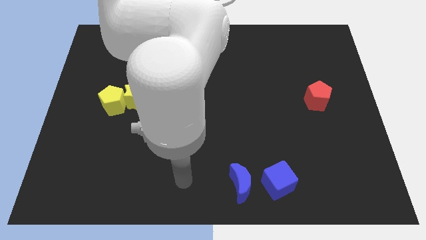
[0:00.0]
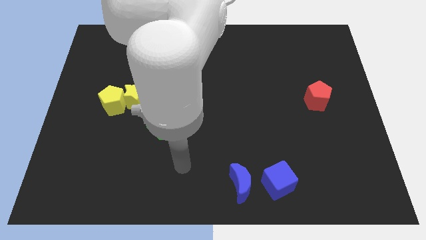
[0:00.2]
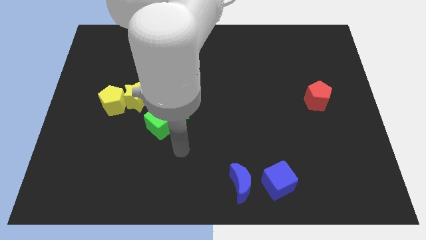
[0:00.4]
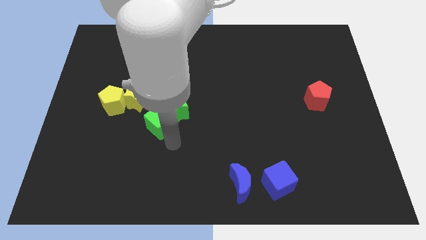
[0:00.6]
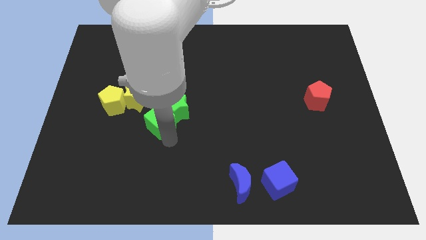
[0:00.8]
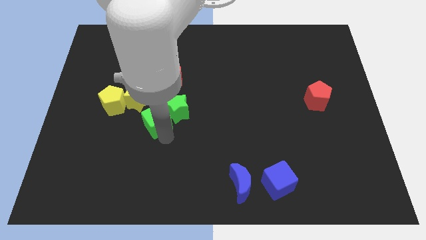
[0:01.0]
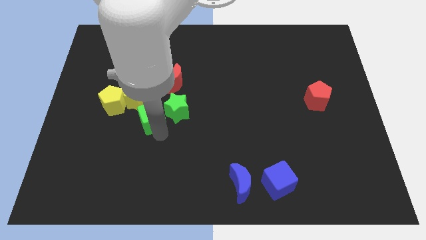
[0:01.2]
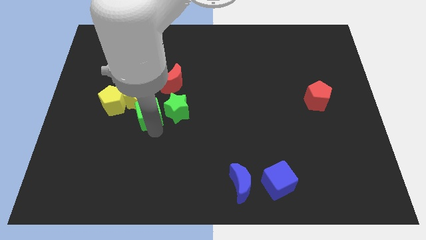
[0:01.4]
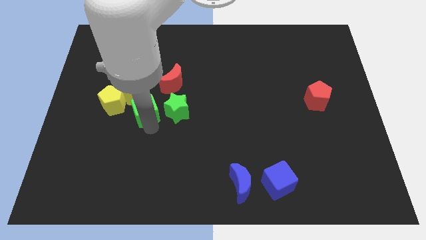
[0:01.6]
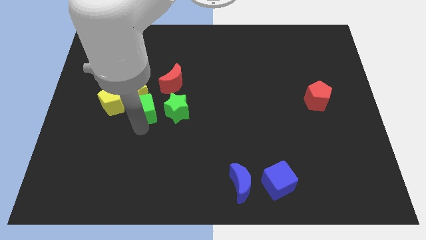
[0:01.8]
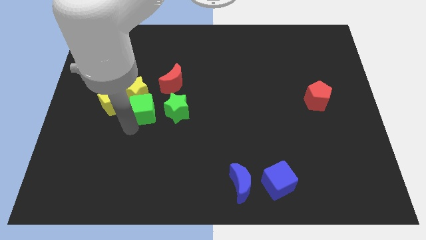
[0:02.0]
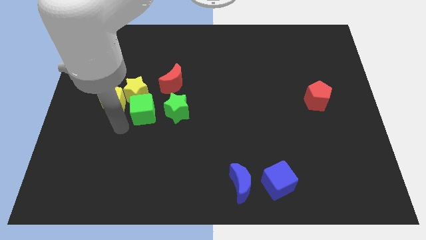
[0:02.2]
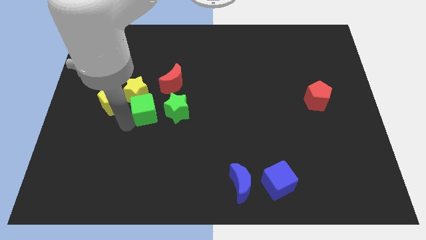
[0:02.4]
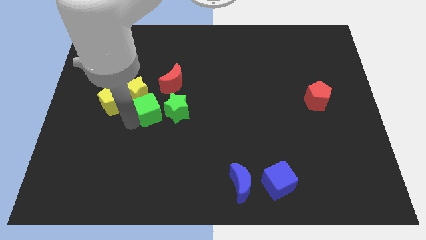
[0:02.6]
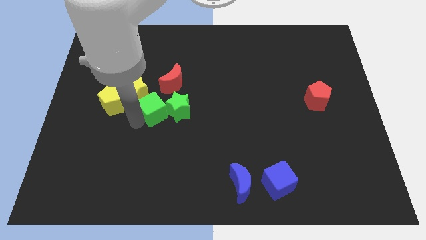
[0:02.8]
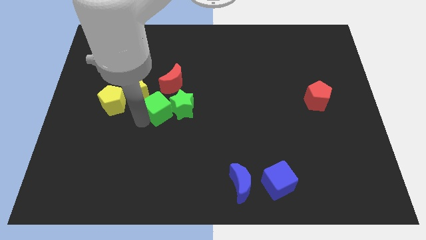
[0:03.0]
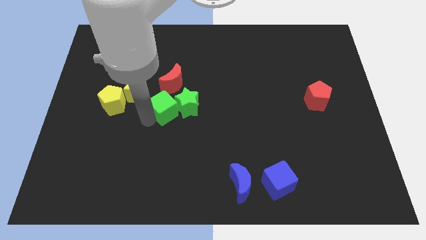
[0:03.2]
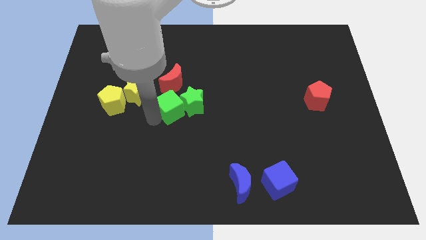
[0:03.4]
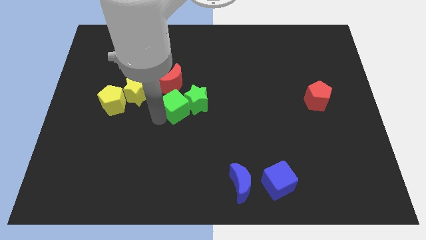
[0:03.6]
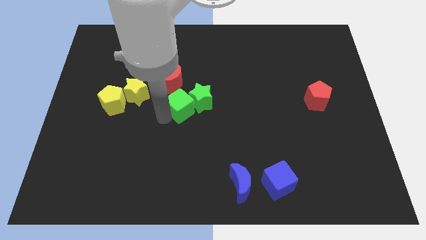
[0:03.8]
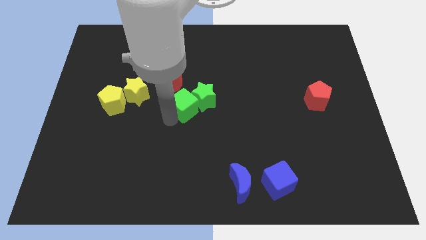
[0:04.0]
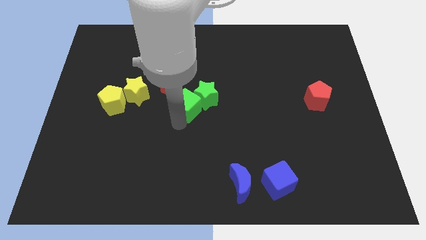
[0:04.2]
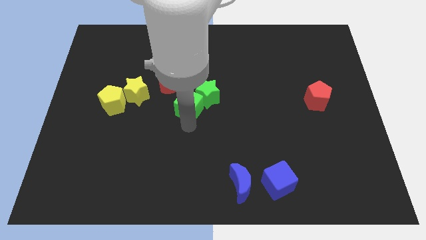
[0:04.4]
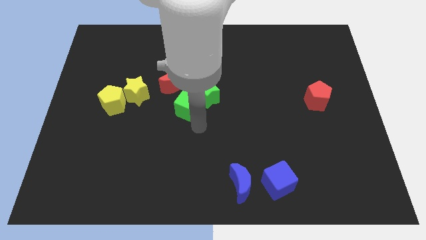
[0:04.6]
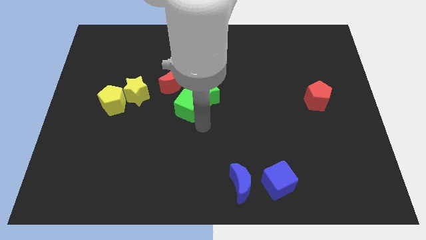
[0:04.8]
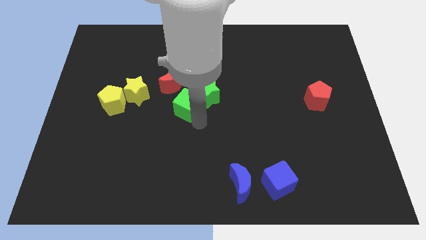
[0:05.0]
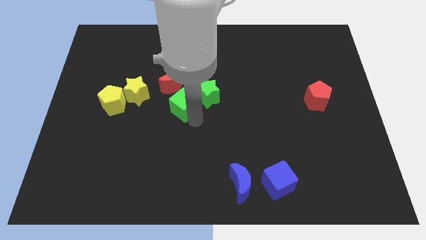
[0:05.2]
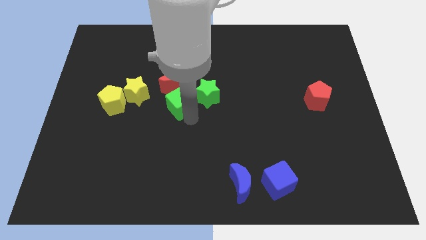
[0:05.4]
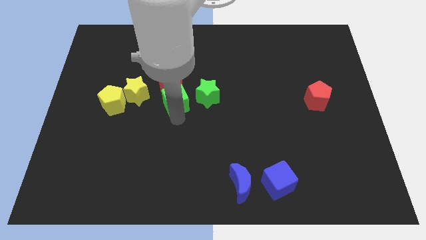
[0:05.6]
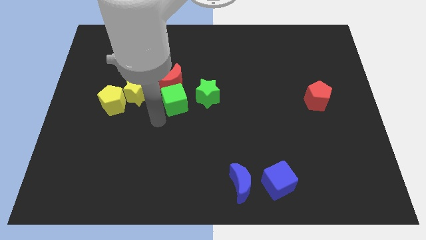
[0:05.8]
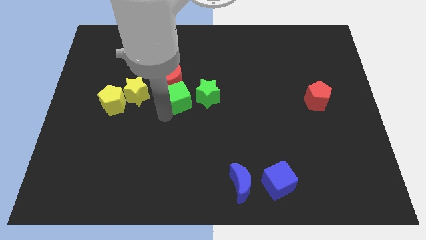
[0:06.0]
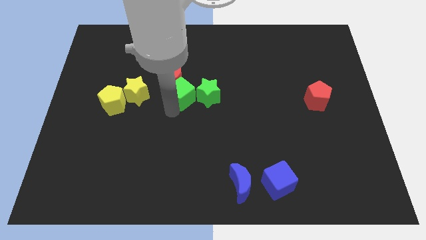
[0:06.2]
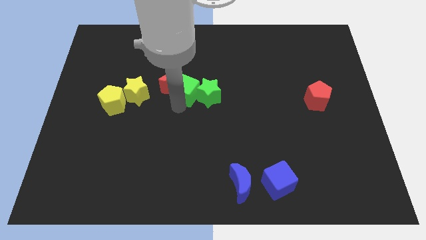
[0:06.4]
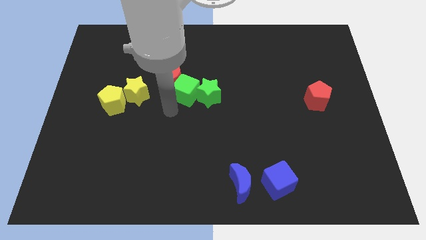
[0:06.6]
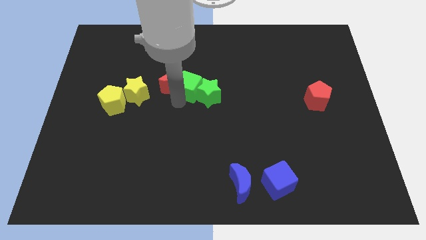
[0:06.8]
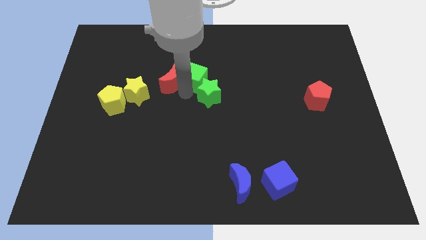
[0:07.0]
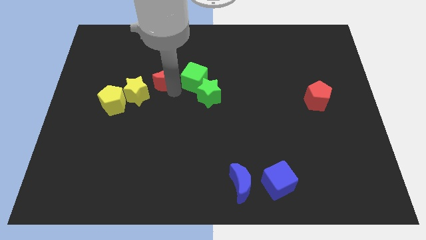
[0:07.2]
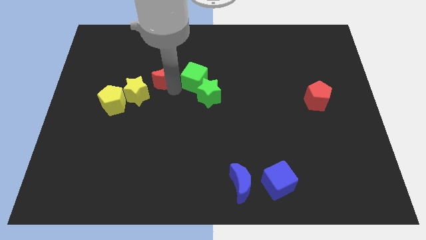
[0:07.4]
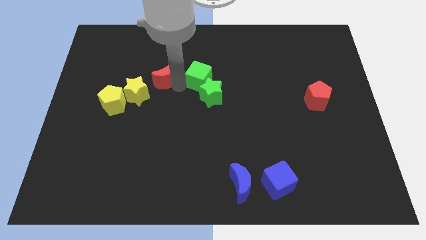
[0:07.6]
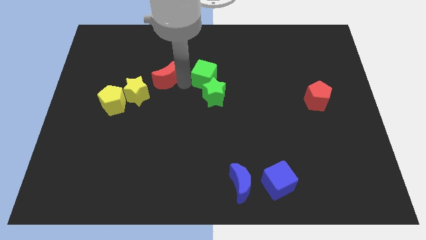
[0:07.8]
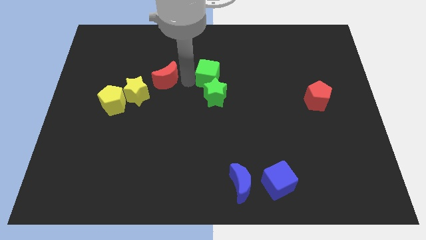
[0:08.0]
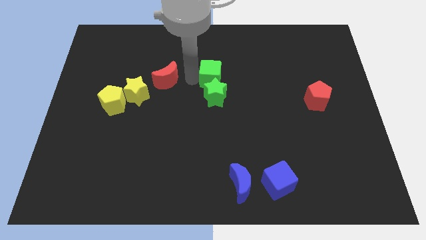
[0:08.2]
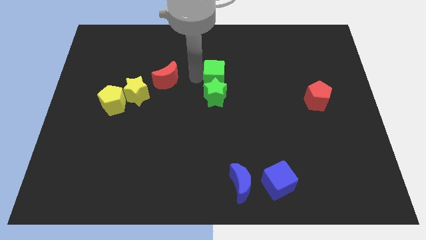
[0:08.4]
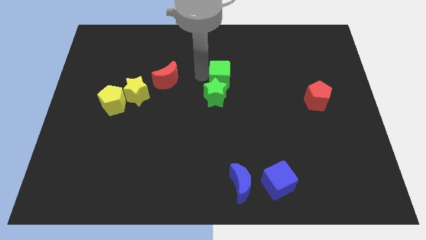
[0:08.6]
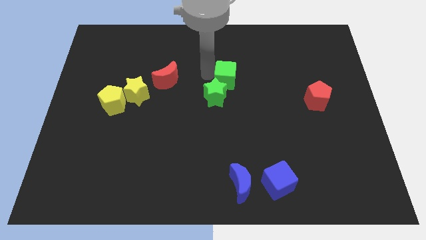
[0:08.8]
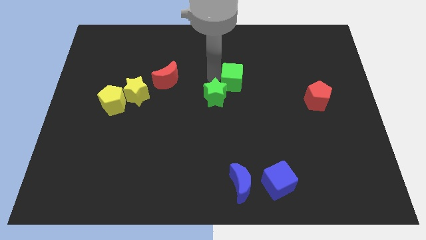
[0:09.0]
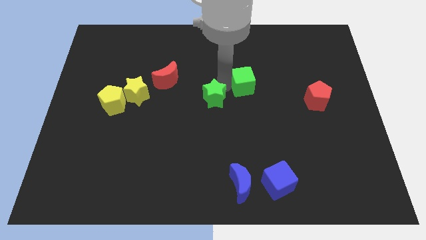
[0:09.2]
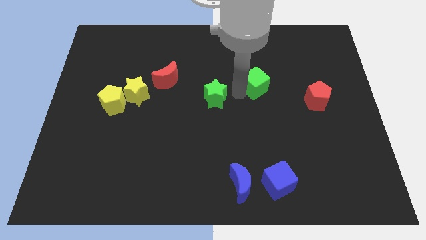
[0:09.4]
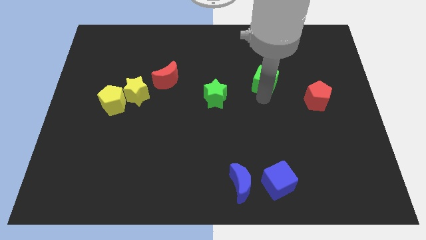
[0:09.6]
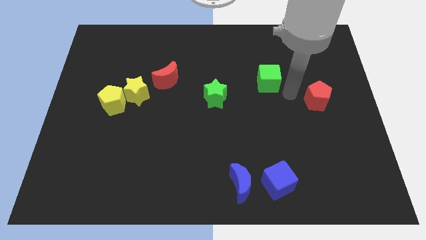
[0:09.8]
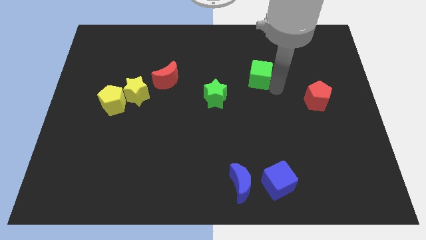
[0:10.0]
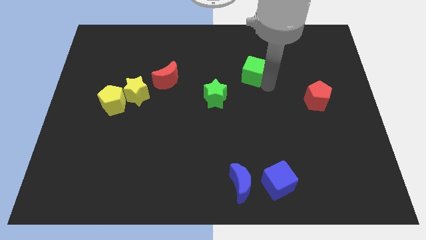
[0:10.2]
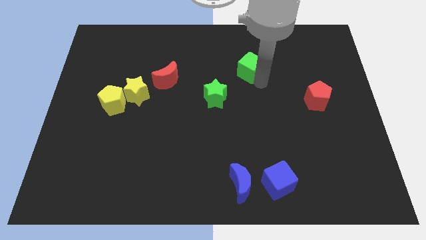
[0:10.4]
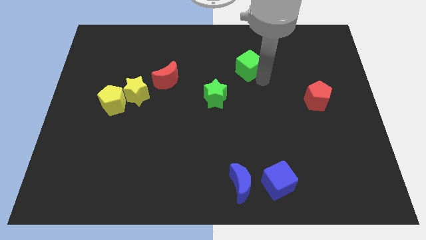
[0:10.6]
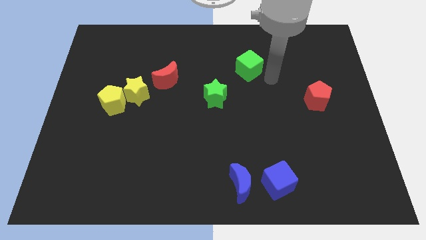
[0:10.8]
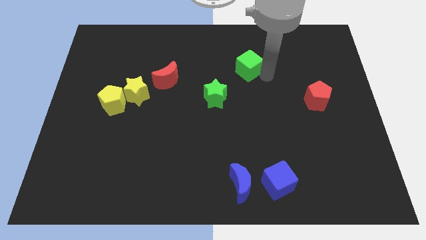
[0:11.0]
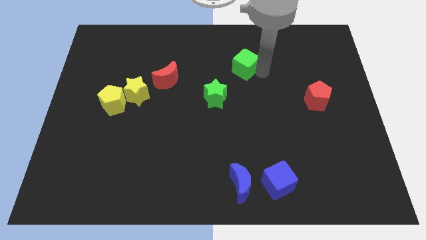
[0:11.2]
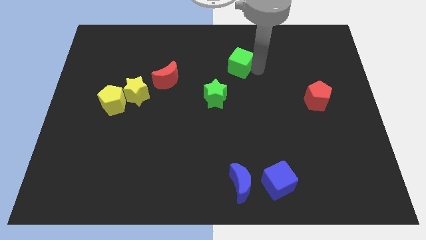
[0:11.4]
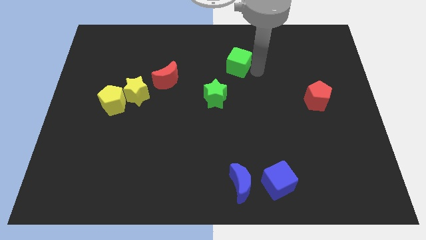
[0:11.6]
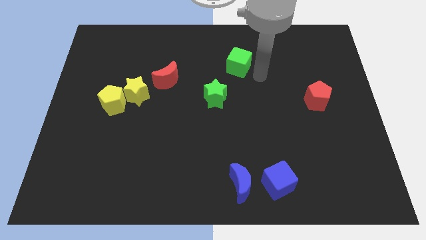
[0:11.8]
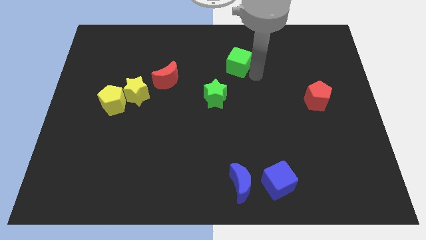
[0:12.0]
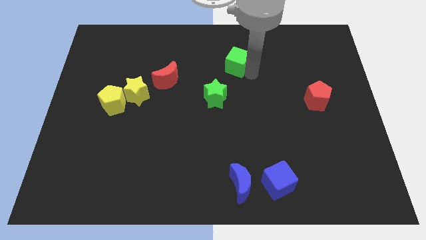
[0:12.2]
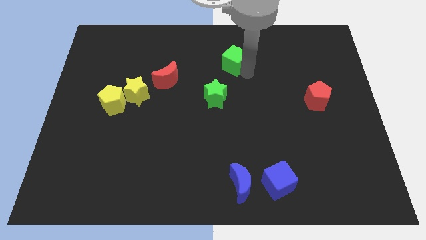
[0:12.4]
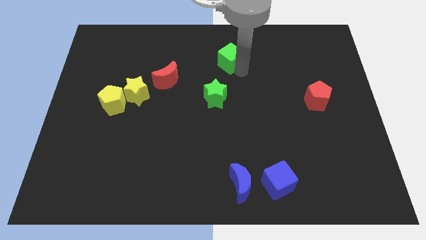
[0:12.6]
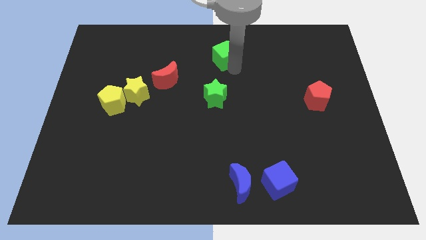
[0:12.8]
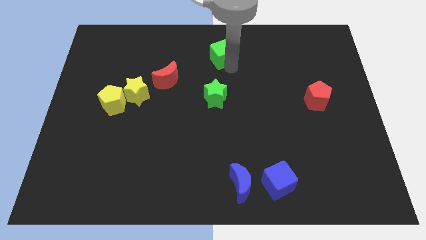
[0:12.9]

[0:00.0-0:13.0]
push the green cube to the towards your base
